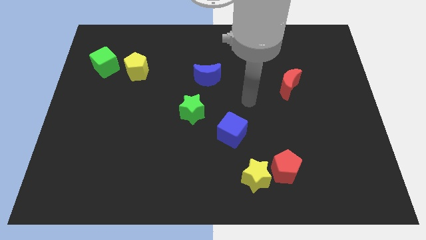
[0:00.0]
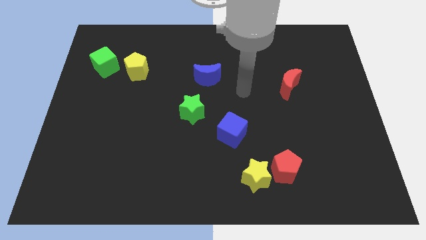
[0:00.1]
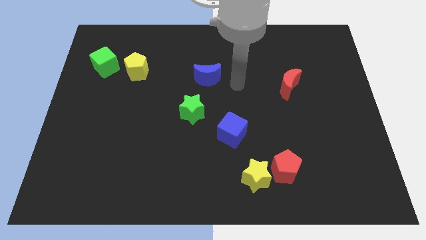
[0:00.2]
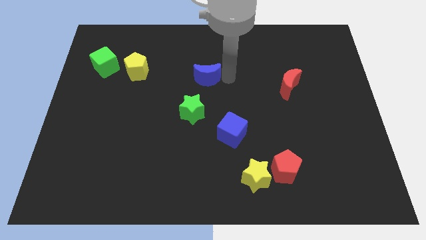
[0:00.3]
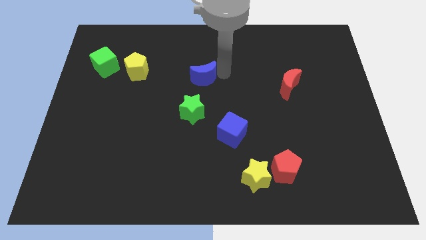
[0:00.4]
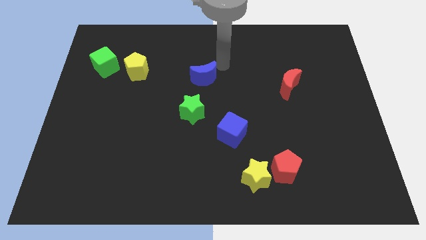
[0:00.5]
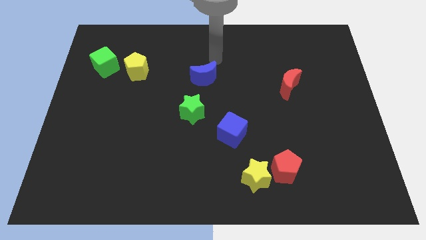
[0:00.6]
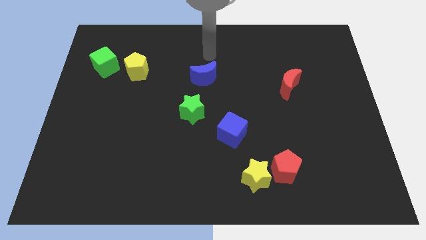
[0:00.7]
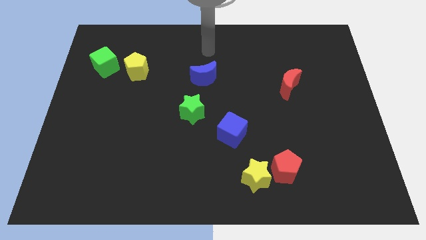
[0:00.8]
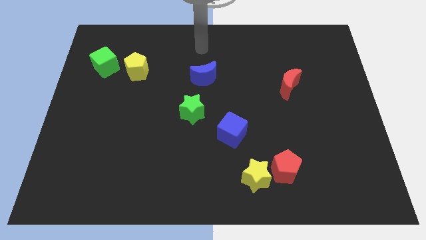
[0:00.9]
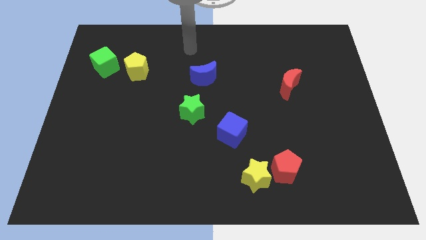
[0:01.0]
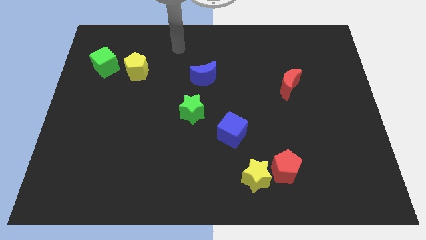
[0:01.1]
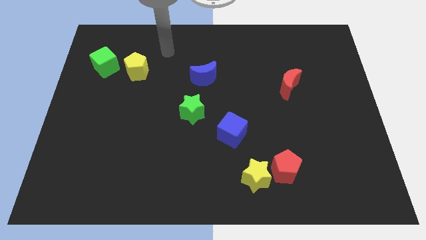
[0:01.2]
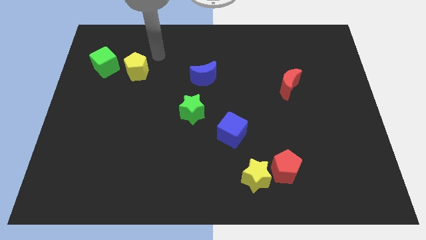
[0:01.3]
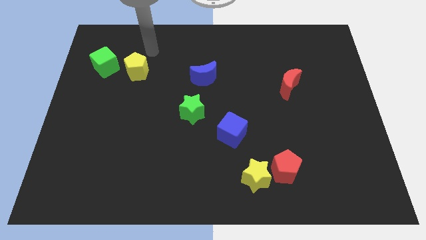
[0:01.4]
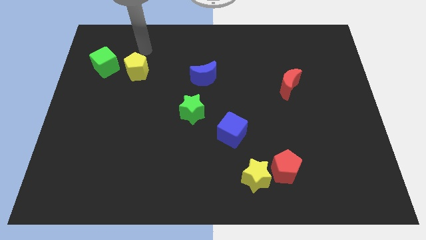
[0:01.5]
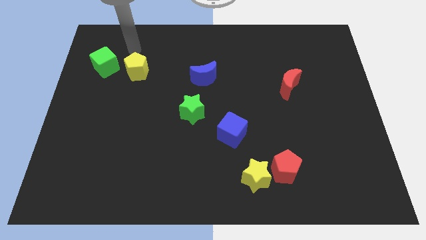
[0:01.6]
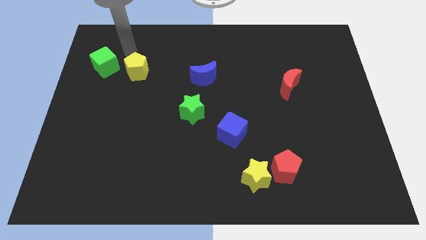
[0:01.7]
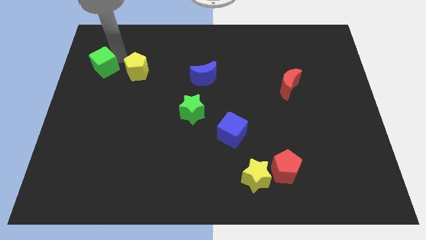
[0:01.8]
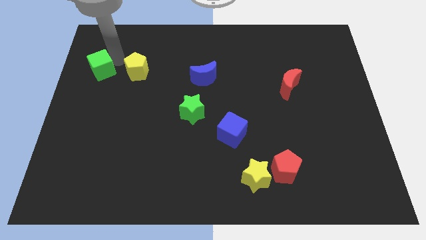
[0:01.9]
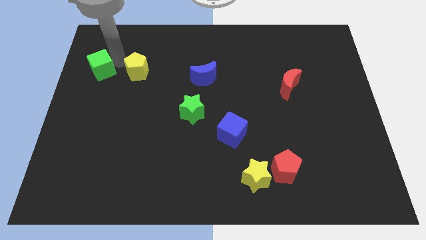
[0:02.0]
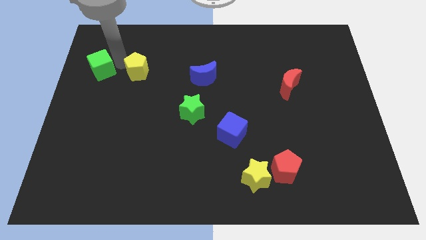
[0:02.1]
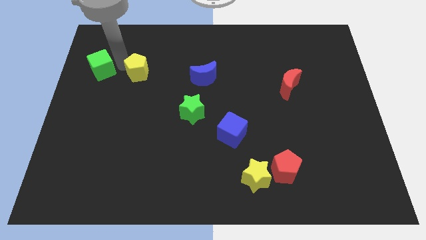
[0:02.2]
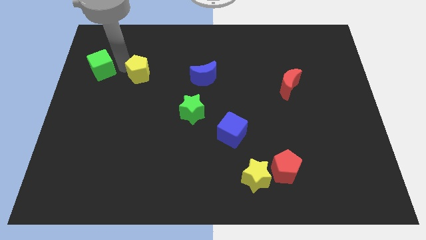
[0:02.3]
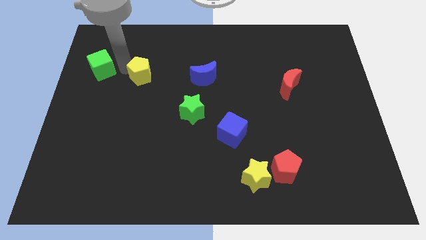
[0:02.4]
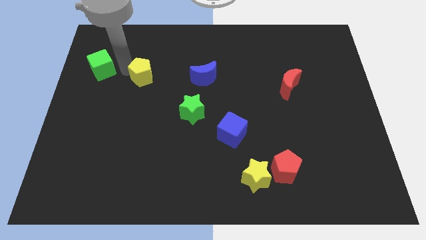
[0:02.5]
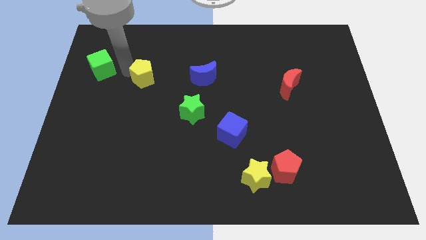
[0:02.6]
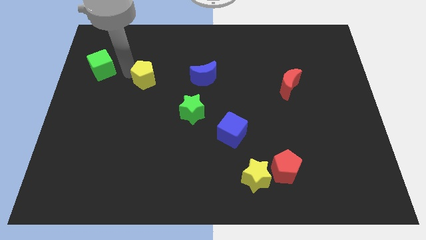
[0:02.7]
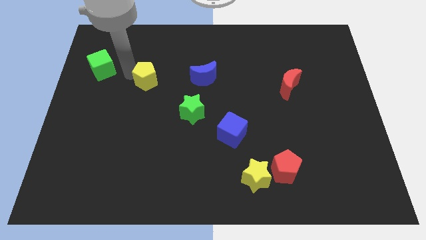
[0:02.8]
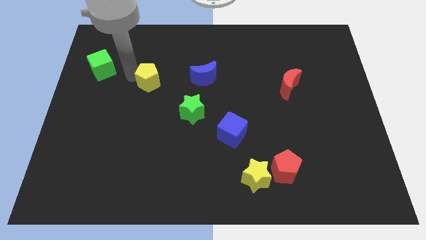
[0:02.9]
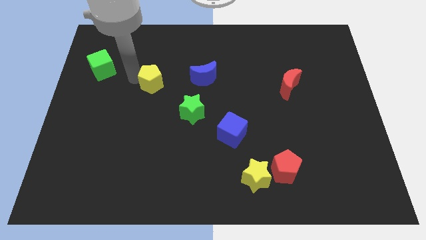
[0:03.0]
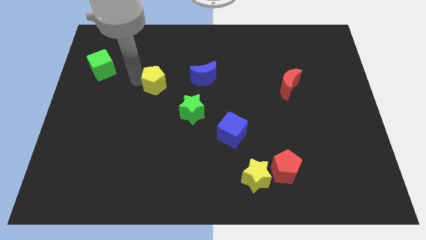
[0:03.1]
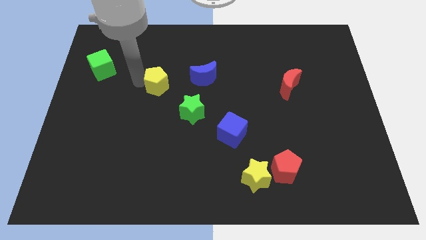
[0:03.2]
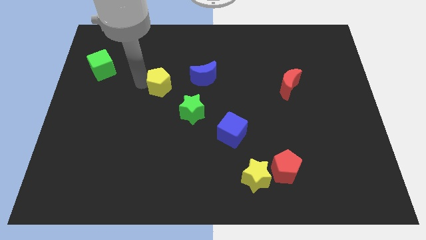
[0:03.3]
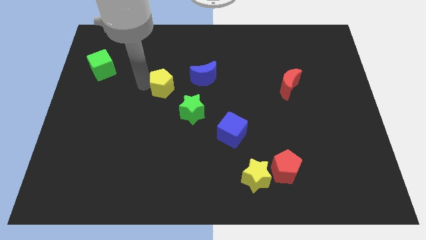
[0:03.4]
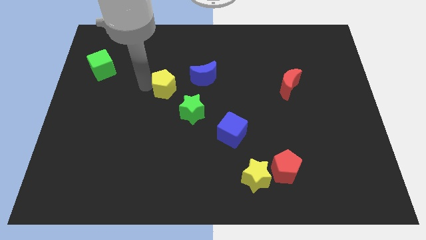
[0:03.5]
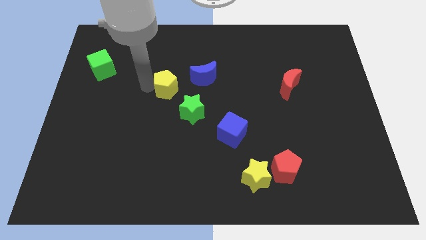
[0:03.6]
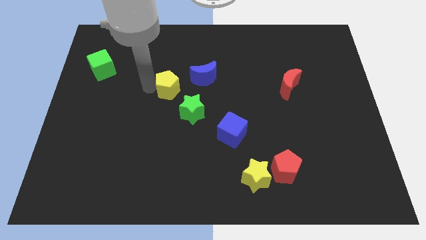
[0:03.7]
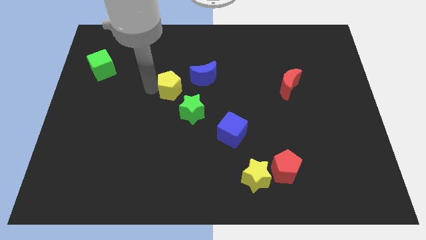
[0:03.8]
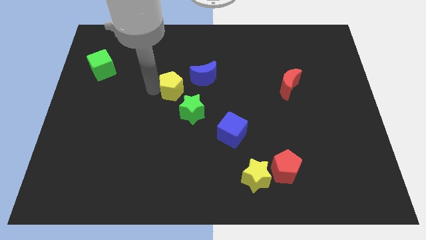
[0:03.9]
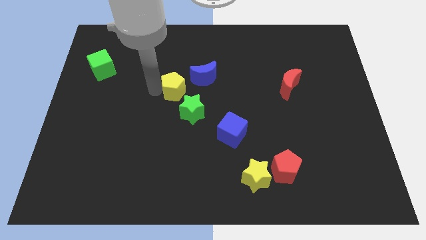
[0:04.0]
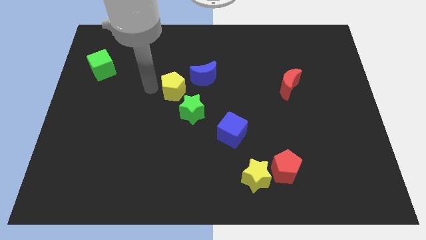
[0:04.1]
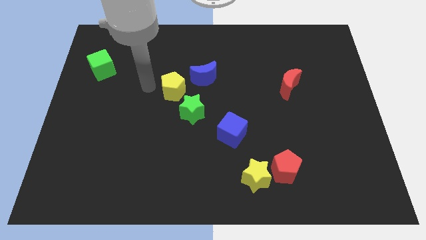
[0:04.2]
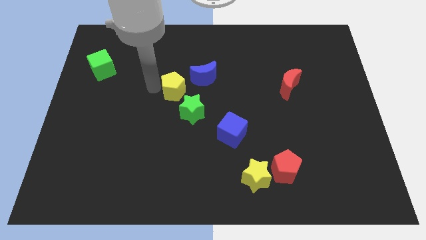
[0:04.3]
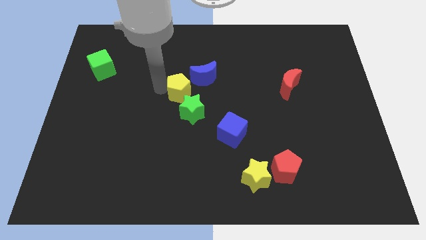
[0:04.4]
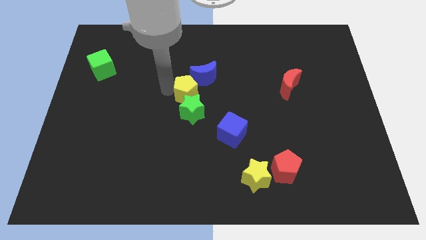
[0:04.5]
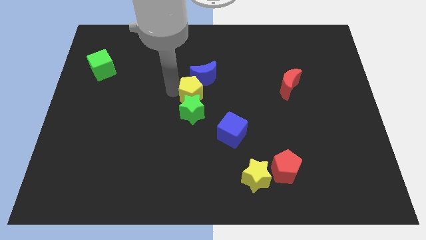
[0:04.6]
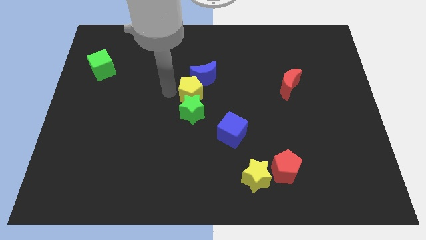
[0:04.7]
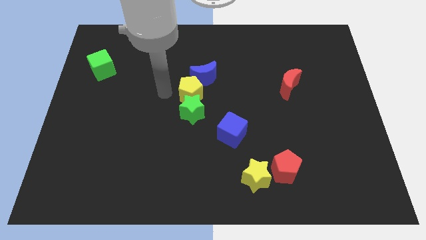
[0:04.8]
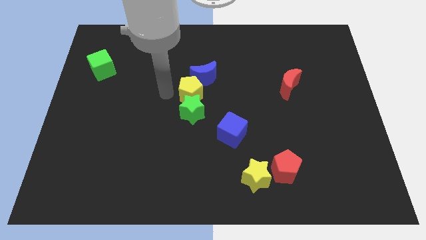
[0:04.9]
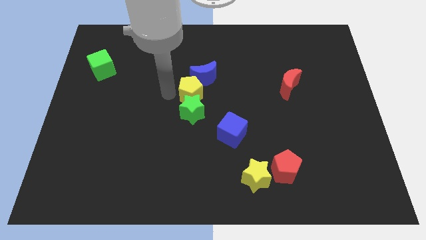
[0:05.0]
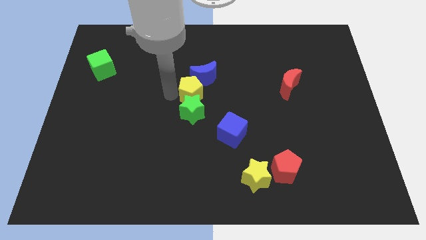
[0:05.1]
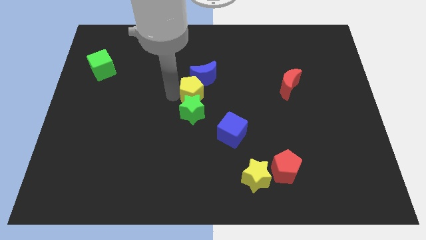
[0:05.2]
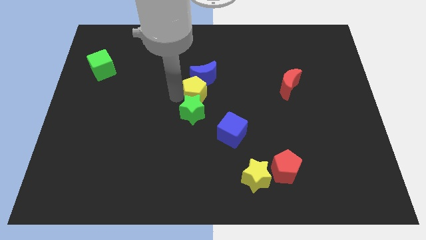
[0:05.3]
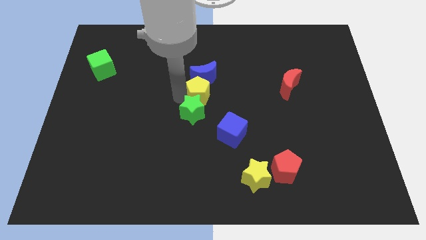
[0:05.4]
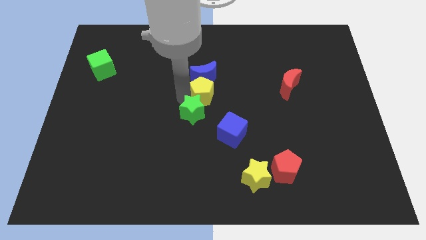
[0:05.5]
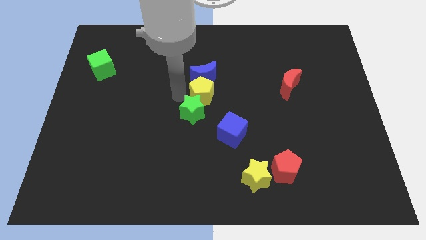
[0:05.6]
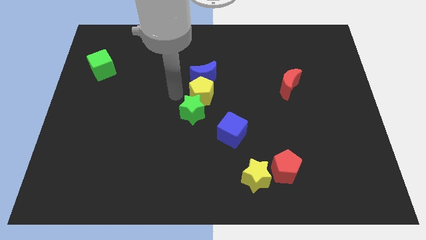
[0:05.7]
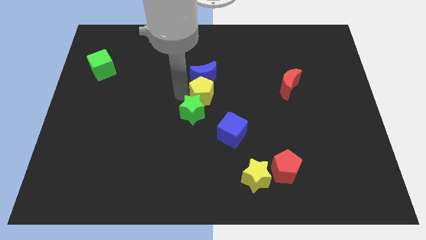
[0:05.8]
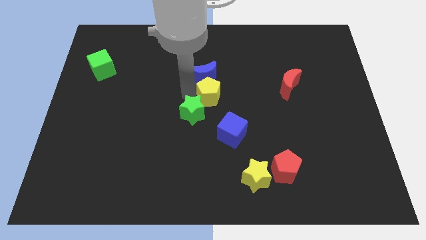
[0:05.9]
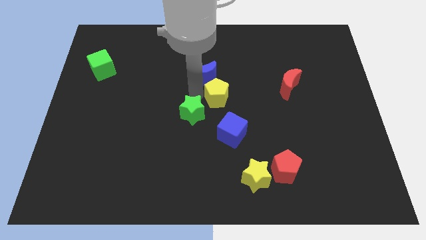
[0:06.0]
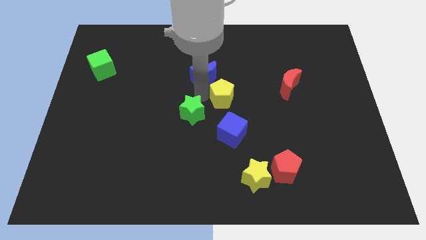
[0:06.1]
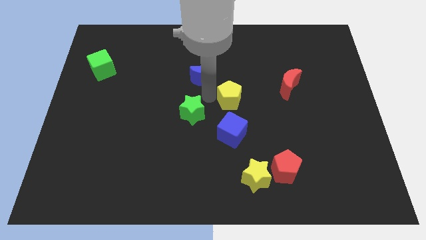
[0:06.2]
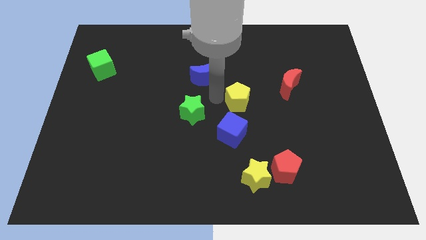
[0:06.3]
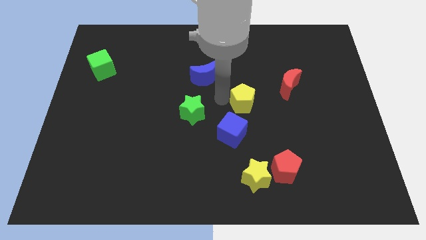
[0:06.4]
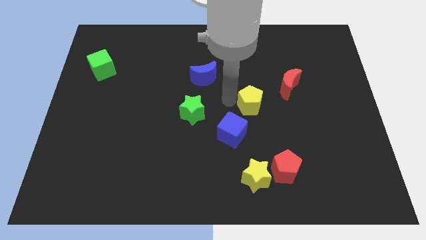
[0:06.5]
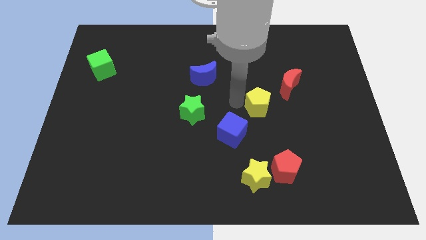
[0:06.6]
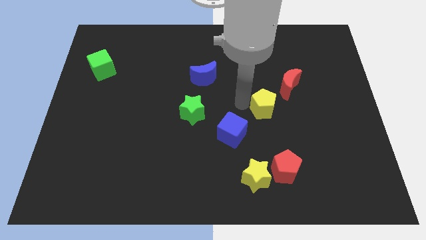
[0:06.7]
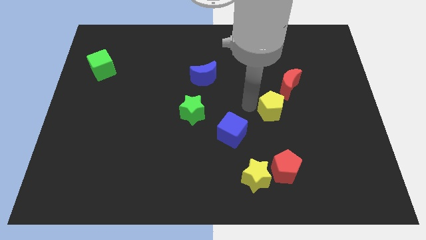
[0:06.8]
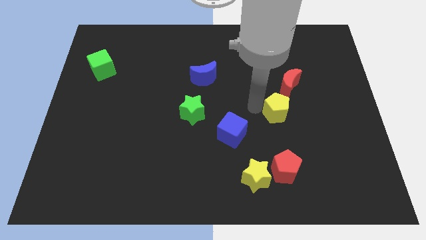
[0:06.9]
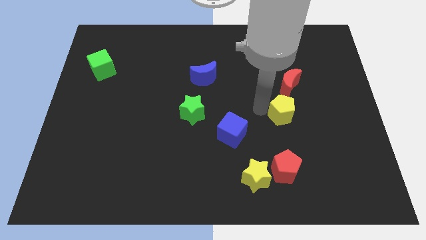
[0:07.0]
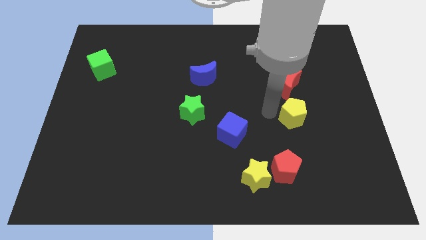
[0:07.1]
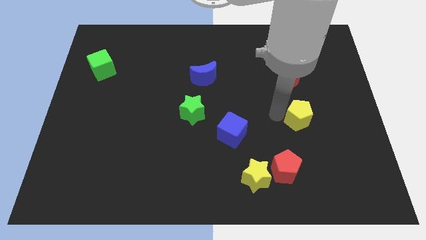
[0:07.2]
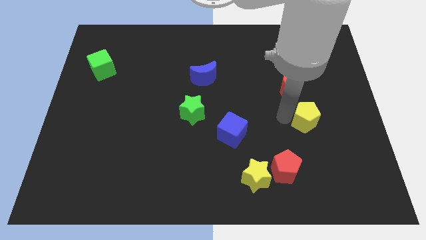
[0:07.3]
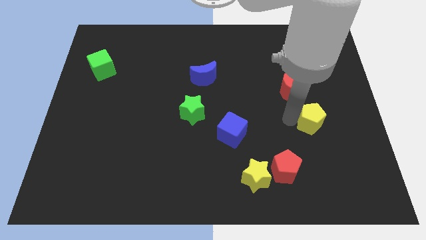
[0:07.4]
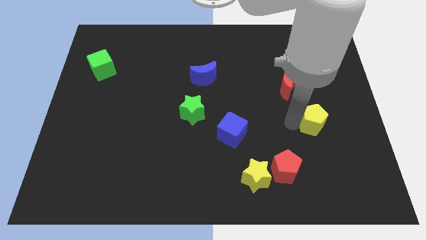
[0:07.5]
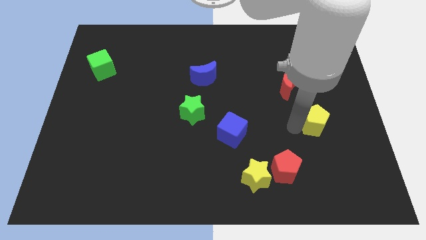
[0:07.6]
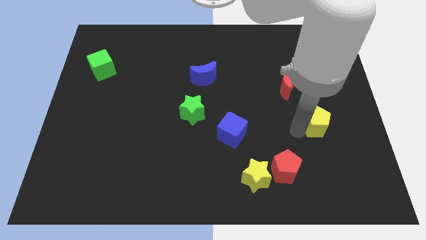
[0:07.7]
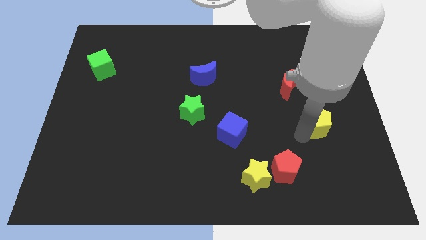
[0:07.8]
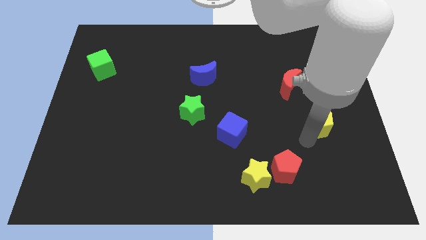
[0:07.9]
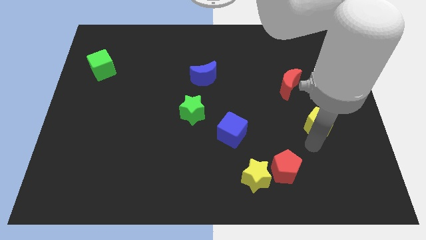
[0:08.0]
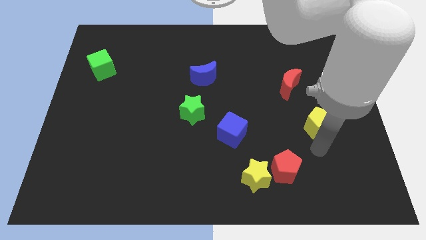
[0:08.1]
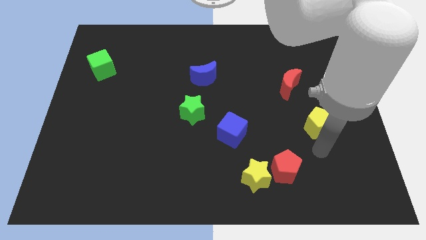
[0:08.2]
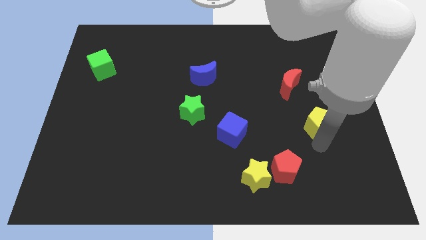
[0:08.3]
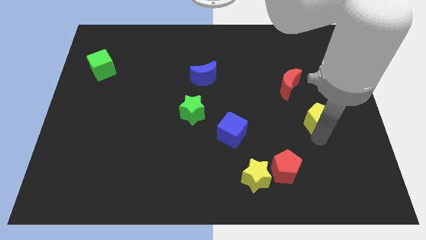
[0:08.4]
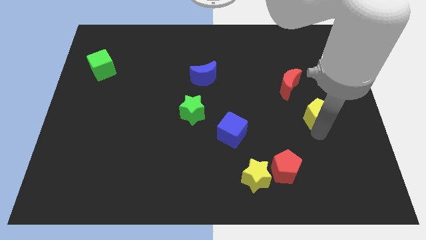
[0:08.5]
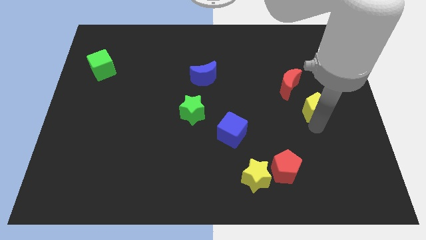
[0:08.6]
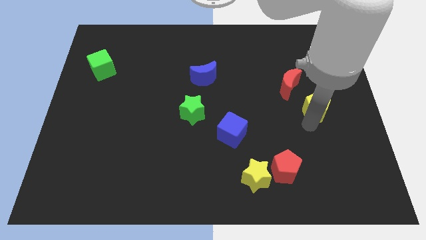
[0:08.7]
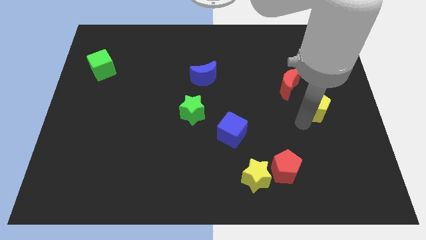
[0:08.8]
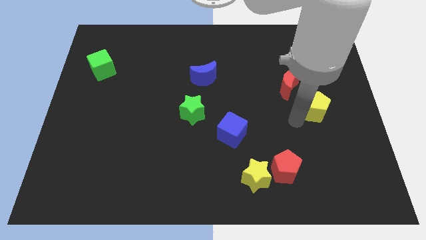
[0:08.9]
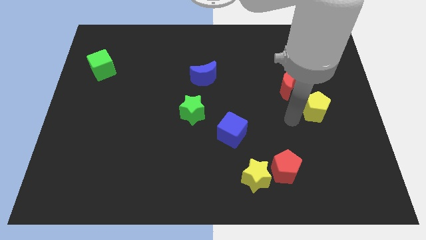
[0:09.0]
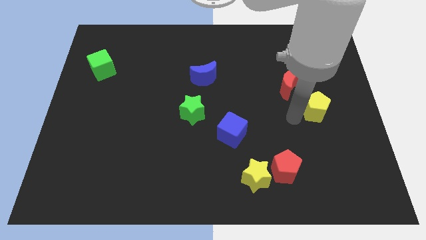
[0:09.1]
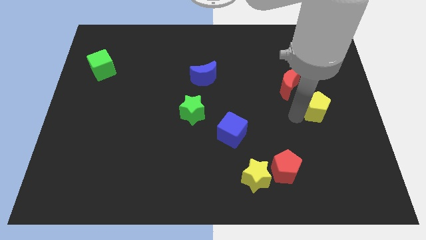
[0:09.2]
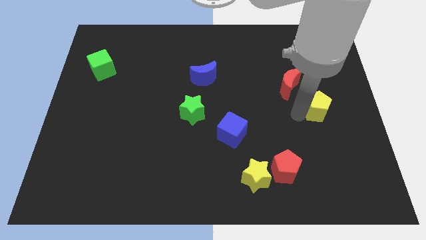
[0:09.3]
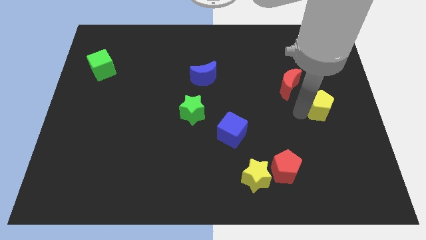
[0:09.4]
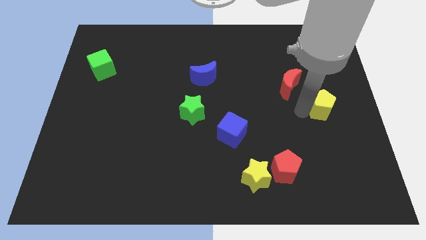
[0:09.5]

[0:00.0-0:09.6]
put the yellow pentagon to the center right
